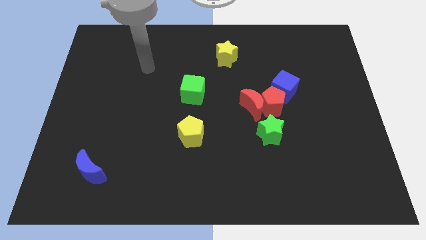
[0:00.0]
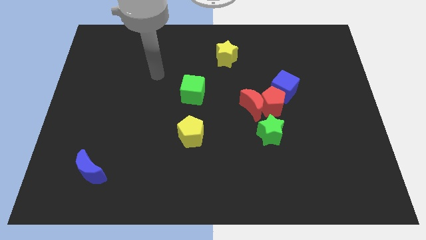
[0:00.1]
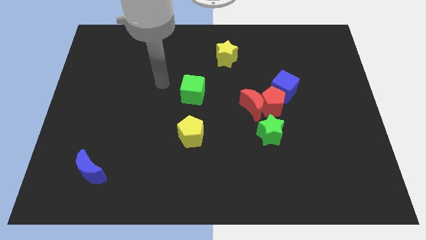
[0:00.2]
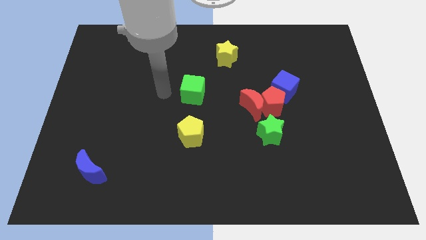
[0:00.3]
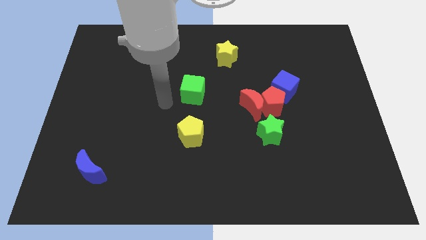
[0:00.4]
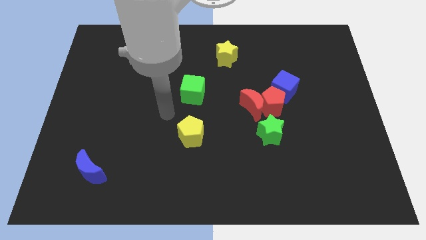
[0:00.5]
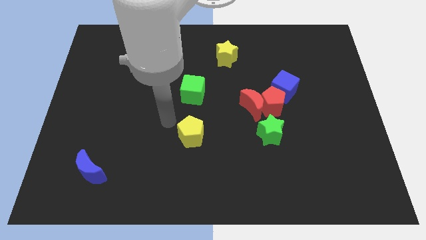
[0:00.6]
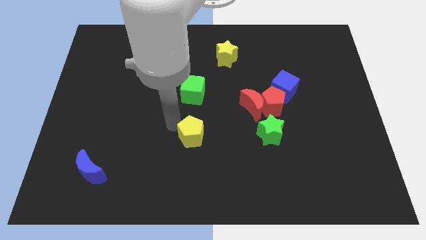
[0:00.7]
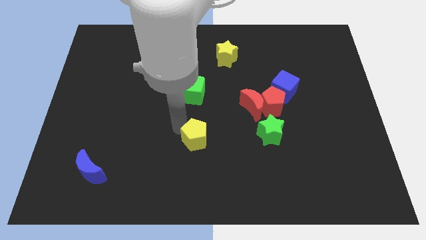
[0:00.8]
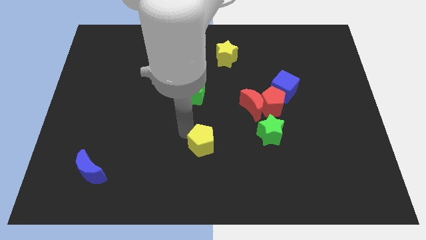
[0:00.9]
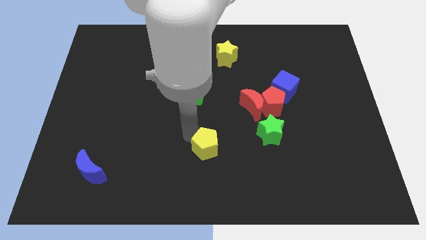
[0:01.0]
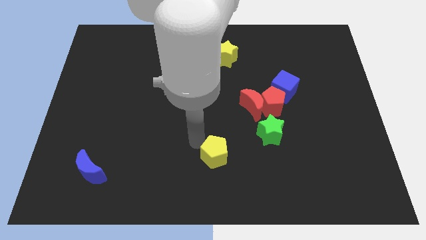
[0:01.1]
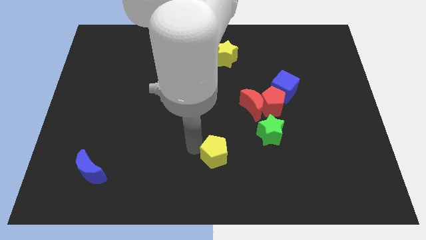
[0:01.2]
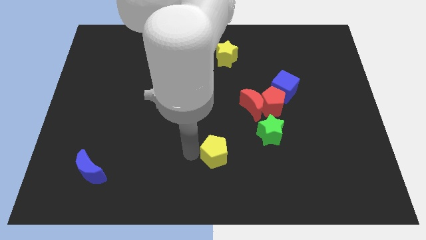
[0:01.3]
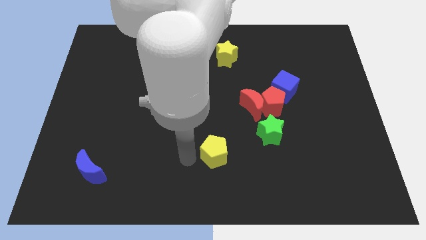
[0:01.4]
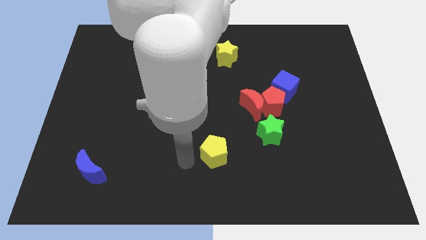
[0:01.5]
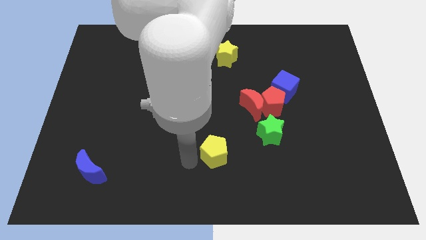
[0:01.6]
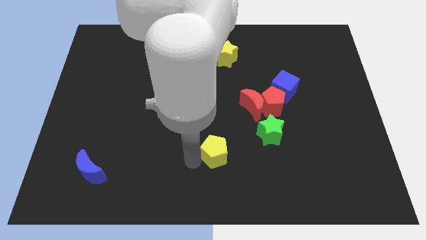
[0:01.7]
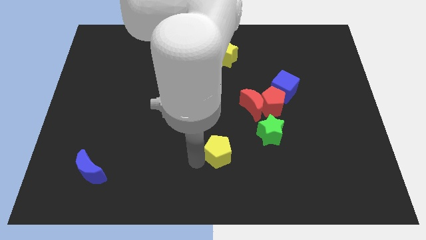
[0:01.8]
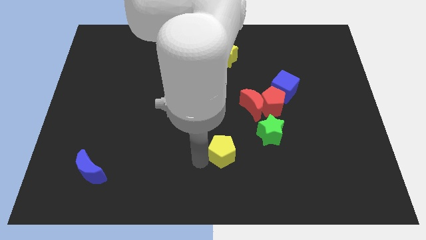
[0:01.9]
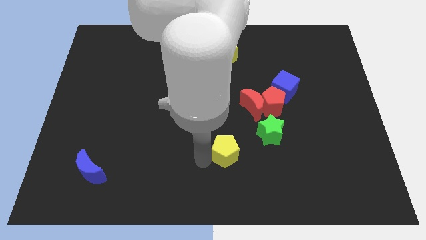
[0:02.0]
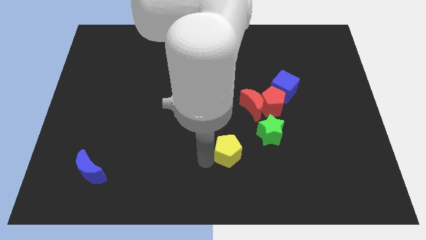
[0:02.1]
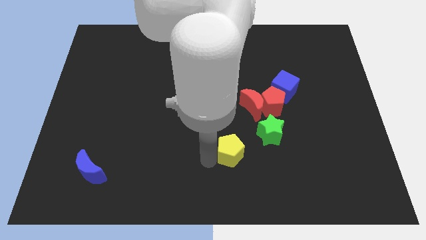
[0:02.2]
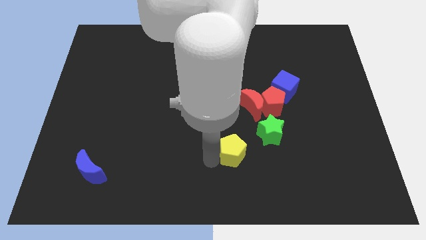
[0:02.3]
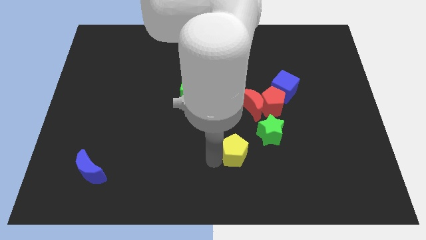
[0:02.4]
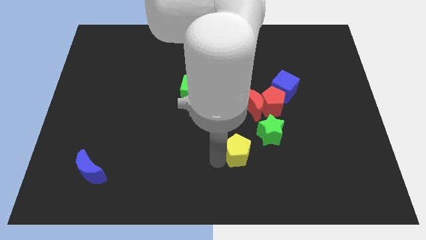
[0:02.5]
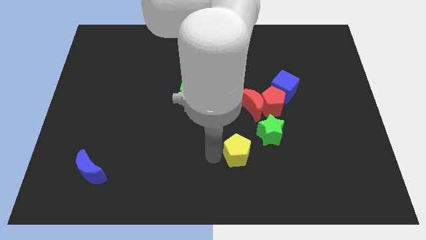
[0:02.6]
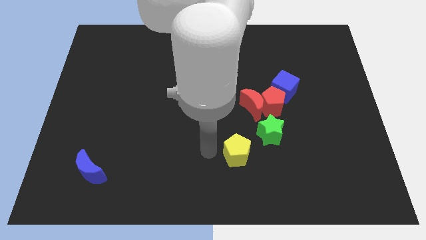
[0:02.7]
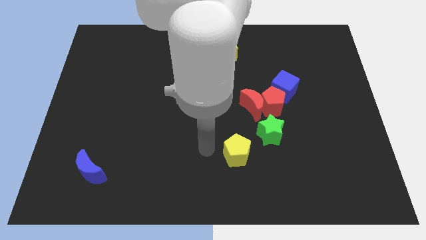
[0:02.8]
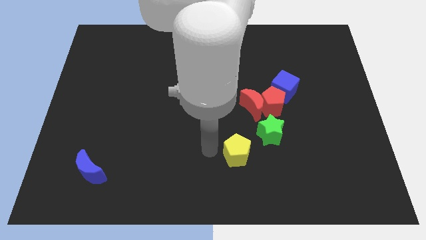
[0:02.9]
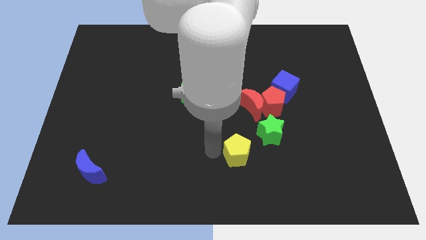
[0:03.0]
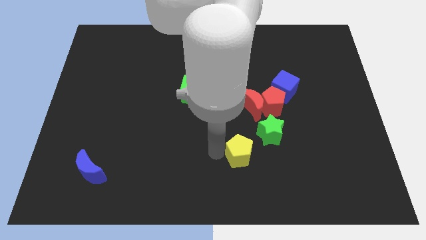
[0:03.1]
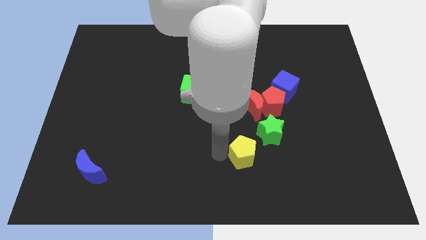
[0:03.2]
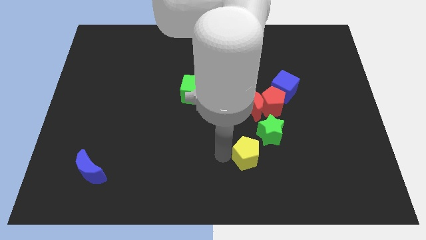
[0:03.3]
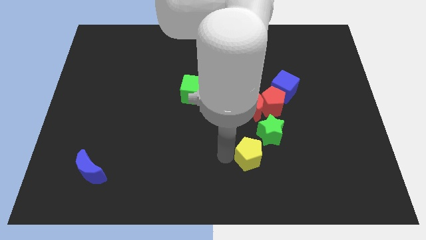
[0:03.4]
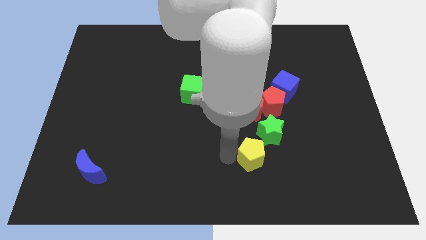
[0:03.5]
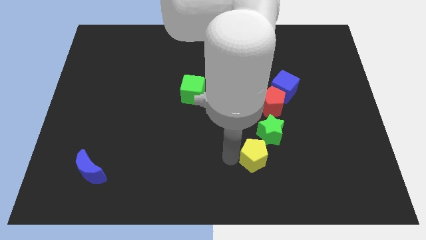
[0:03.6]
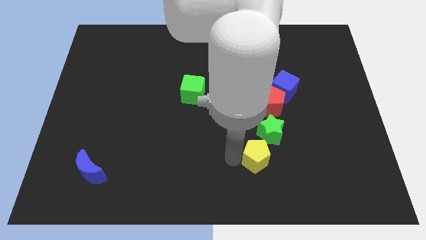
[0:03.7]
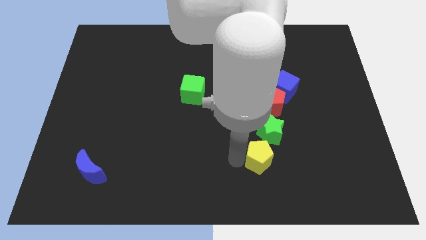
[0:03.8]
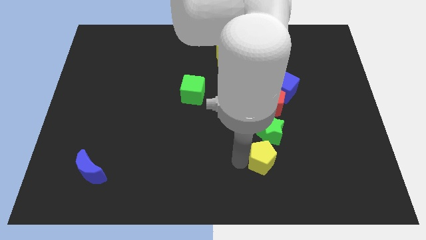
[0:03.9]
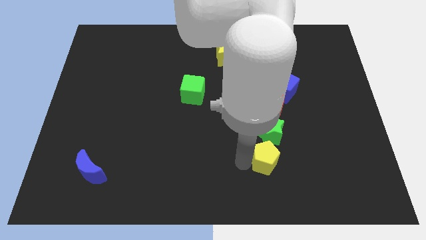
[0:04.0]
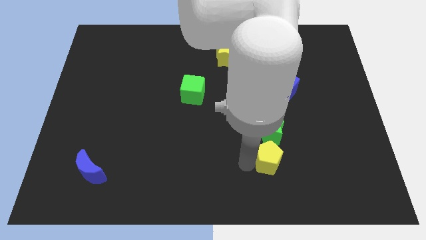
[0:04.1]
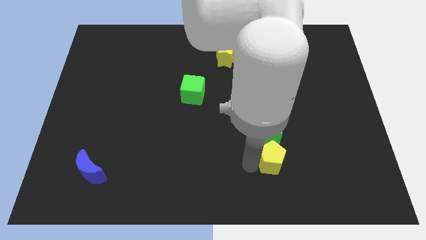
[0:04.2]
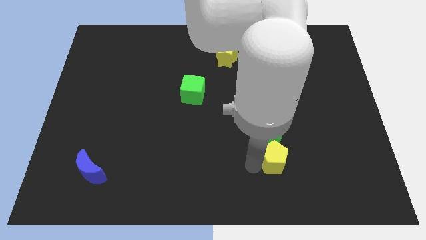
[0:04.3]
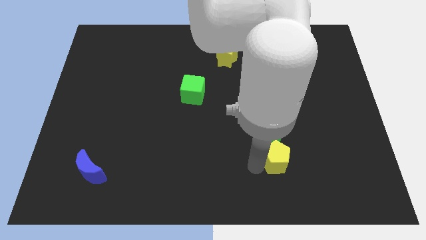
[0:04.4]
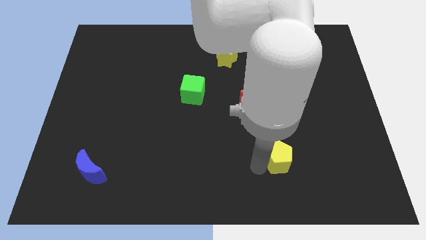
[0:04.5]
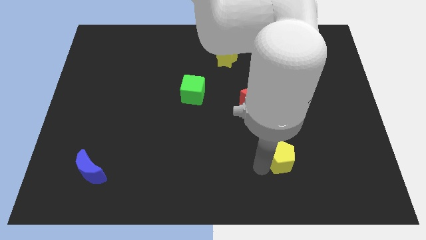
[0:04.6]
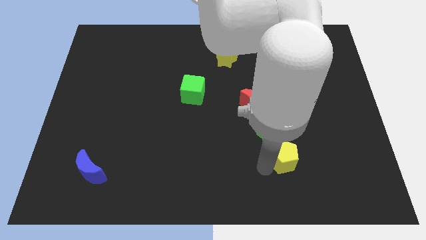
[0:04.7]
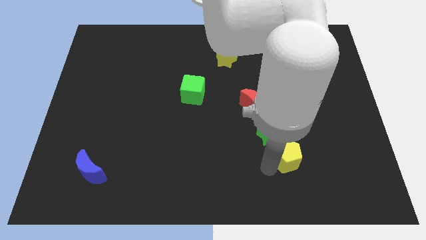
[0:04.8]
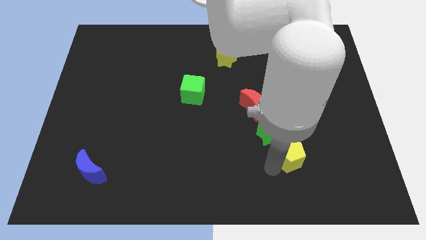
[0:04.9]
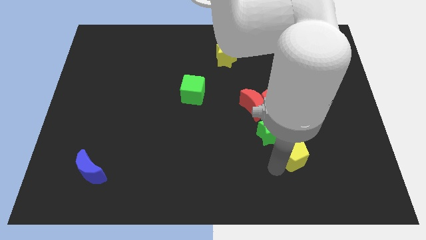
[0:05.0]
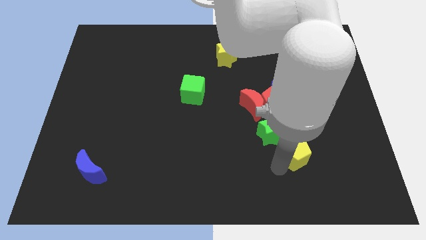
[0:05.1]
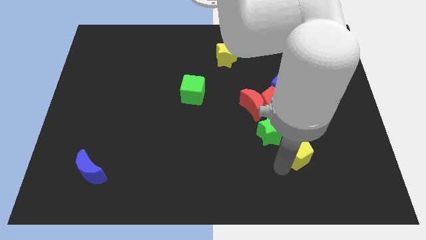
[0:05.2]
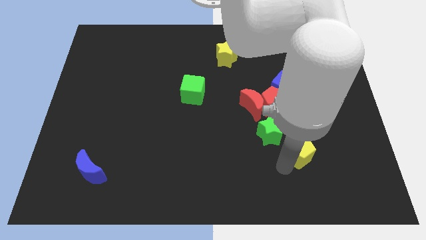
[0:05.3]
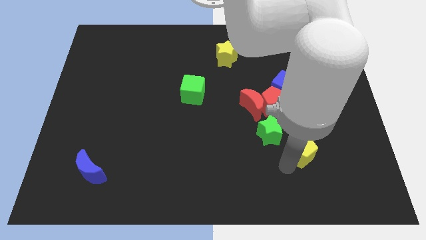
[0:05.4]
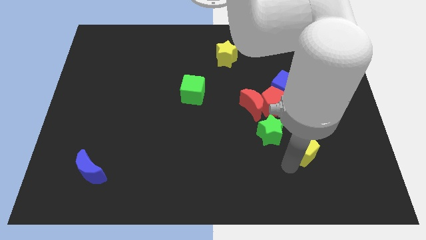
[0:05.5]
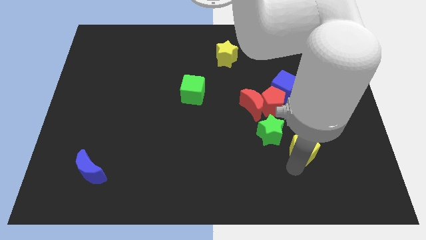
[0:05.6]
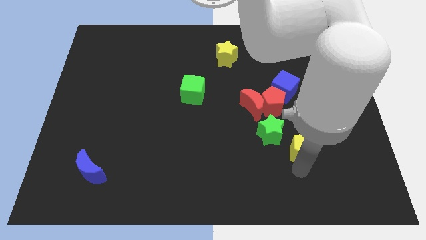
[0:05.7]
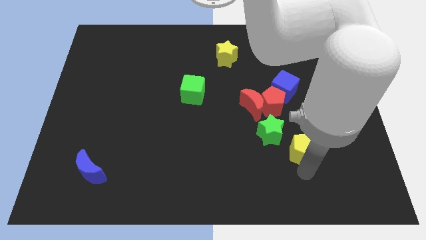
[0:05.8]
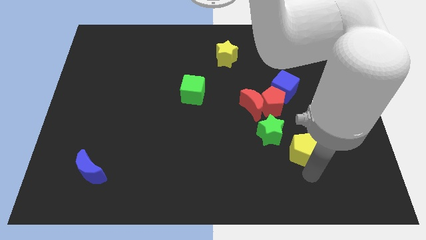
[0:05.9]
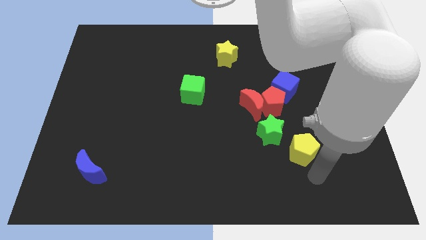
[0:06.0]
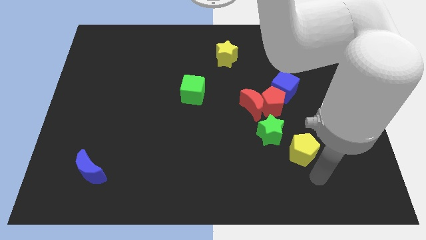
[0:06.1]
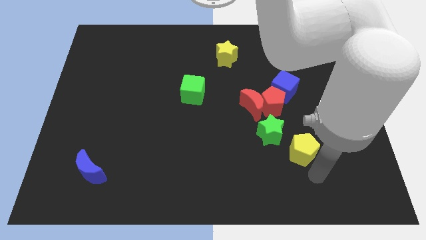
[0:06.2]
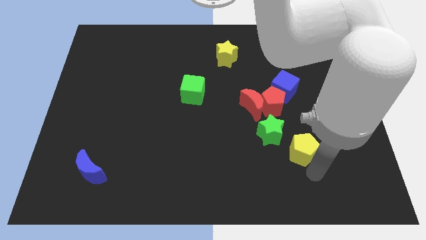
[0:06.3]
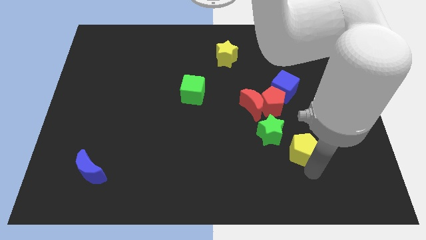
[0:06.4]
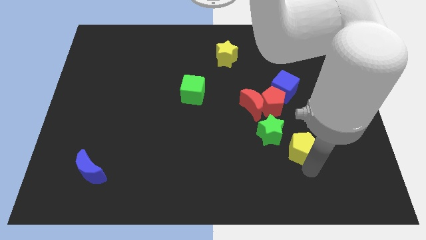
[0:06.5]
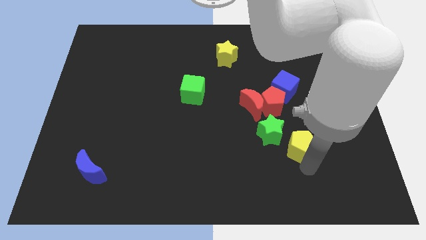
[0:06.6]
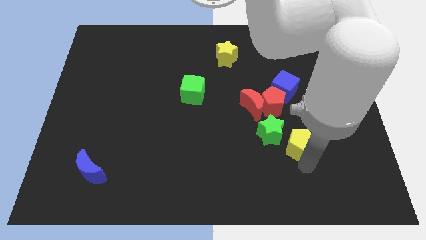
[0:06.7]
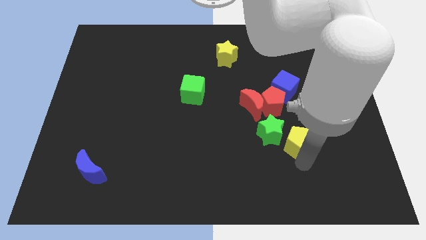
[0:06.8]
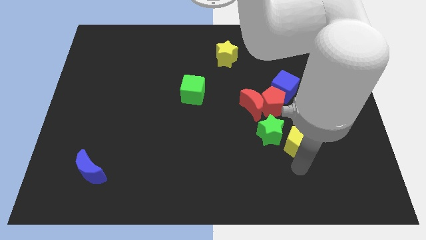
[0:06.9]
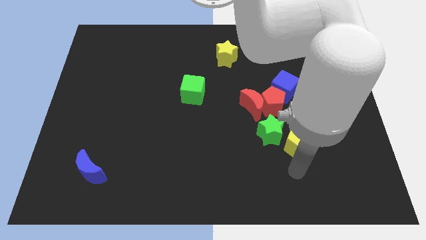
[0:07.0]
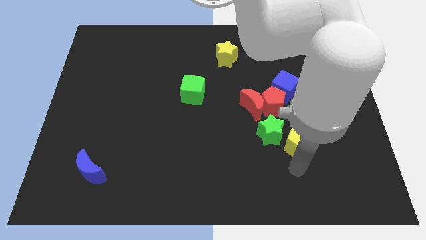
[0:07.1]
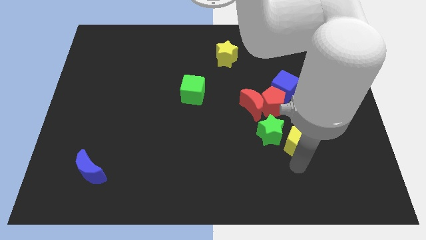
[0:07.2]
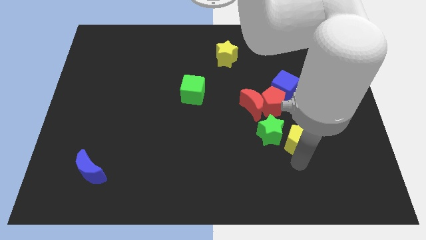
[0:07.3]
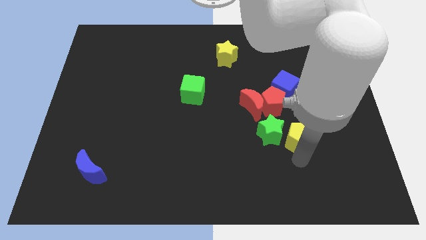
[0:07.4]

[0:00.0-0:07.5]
put the yellow pentagon diagonally down and to the right of the red pentagon
